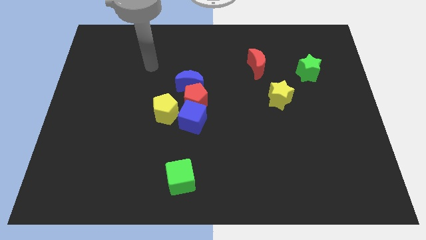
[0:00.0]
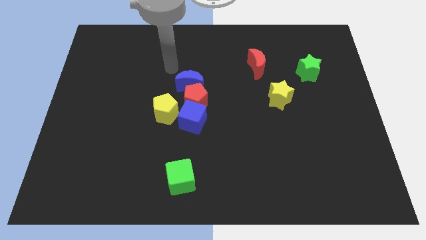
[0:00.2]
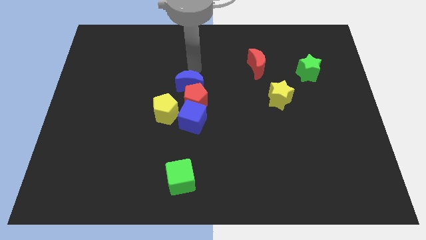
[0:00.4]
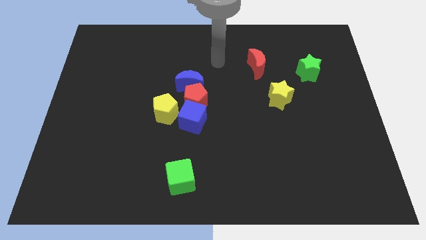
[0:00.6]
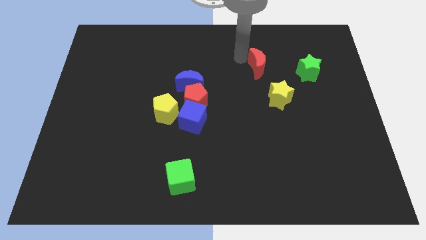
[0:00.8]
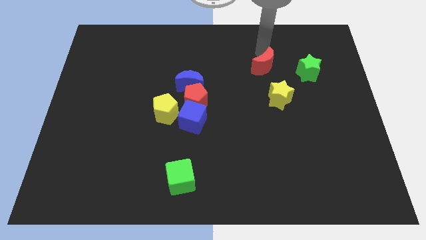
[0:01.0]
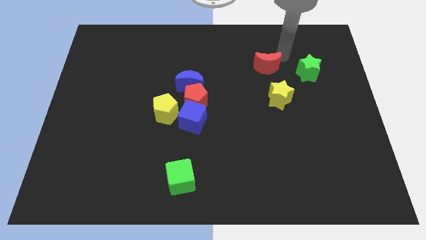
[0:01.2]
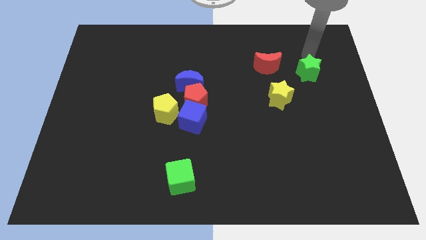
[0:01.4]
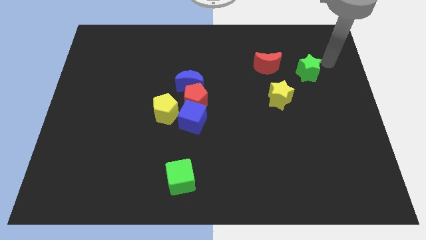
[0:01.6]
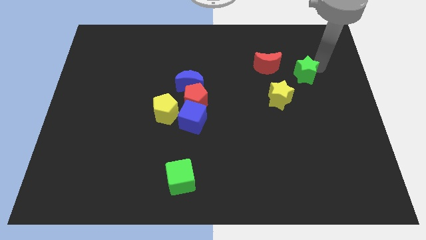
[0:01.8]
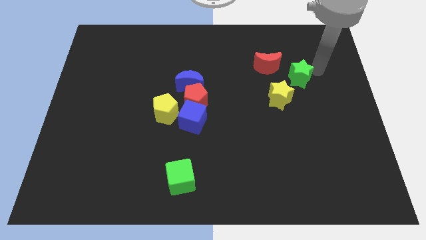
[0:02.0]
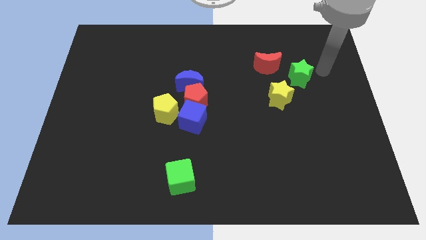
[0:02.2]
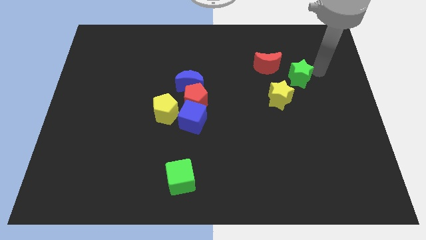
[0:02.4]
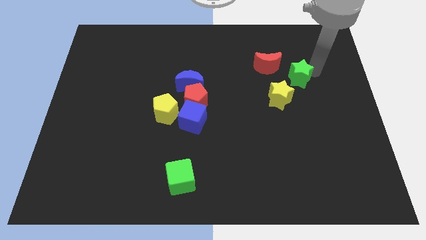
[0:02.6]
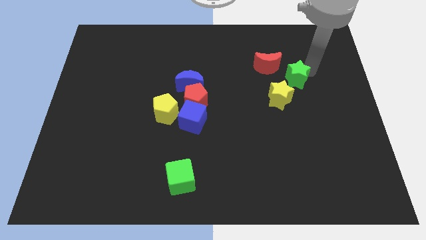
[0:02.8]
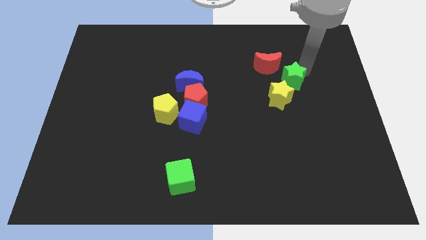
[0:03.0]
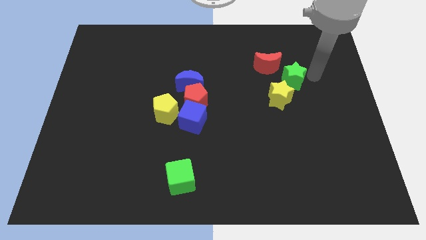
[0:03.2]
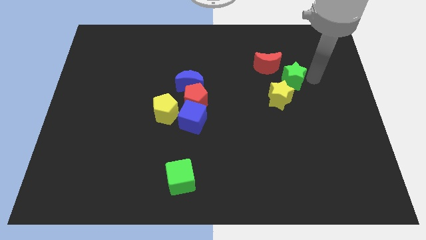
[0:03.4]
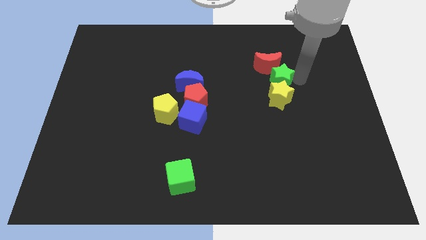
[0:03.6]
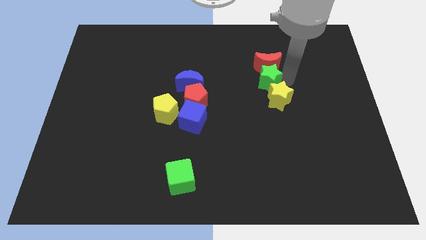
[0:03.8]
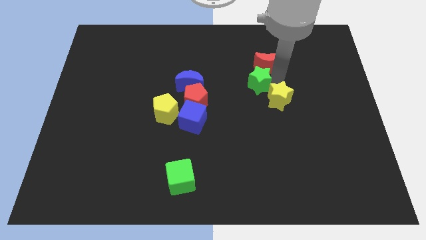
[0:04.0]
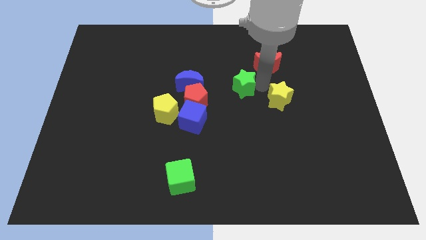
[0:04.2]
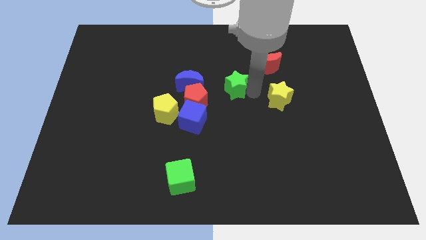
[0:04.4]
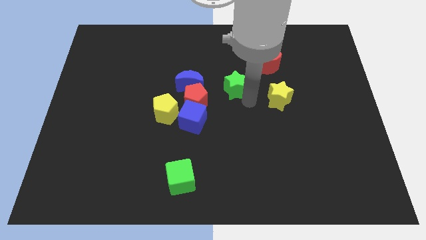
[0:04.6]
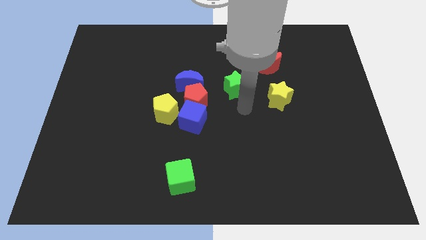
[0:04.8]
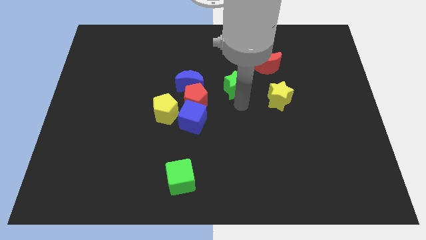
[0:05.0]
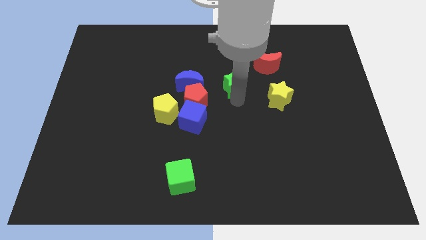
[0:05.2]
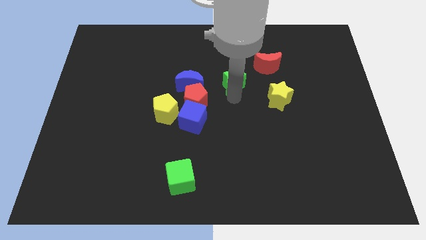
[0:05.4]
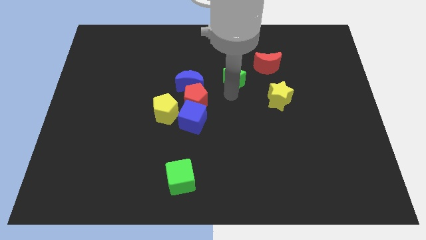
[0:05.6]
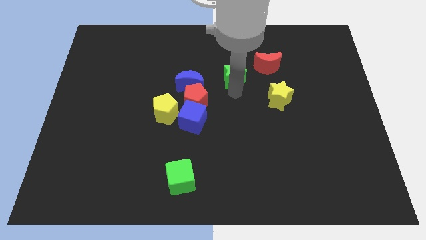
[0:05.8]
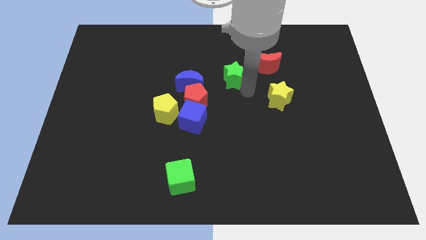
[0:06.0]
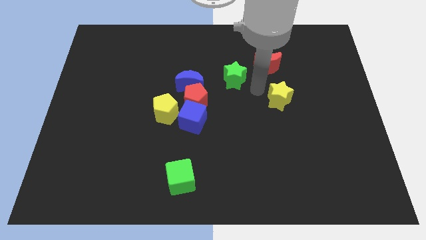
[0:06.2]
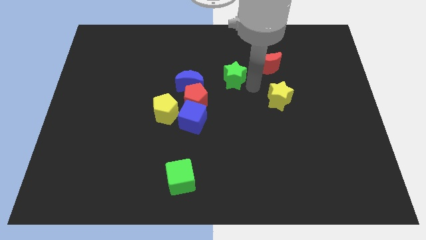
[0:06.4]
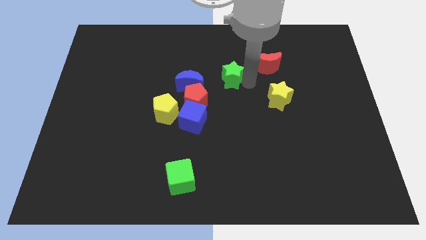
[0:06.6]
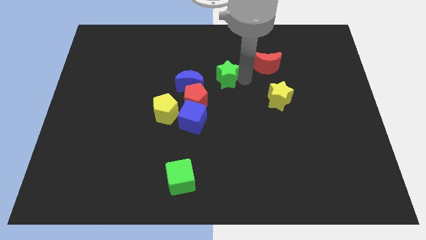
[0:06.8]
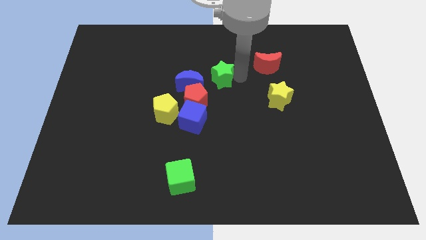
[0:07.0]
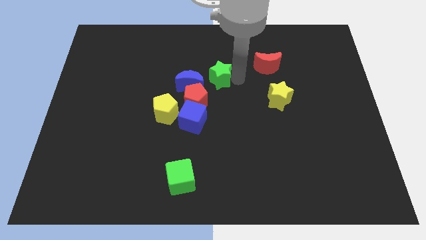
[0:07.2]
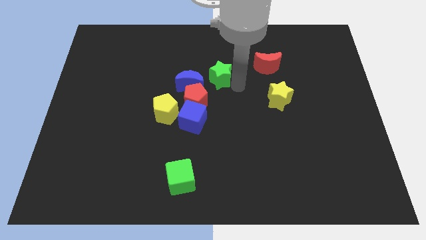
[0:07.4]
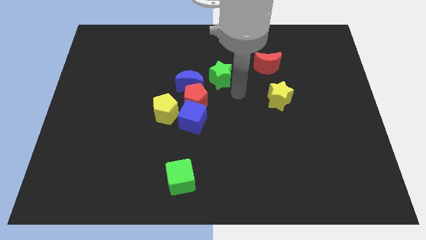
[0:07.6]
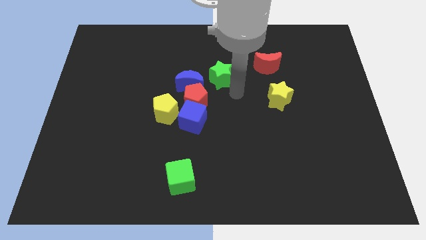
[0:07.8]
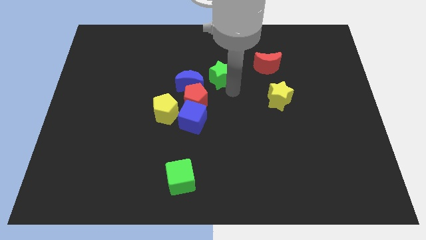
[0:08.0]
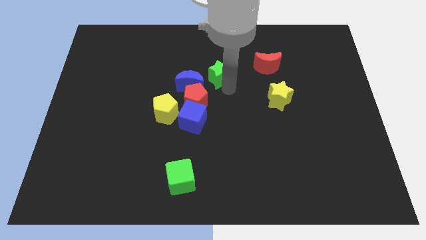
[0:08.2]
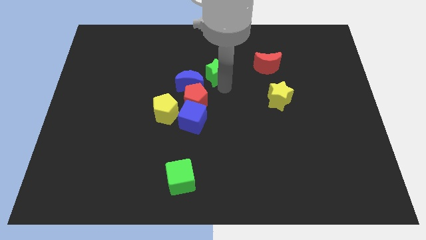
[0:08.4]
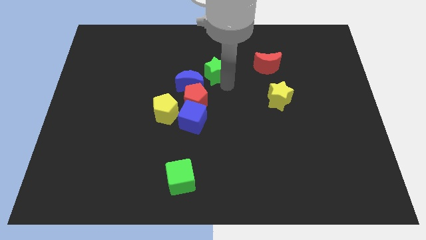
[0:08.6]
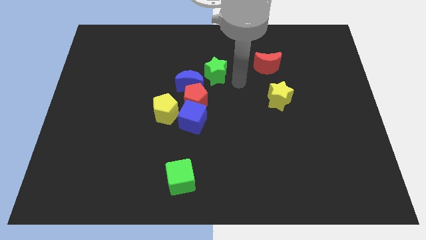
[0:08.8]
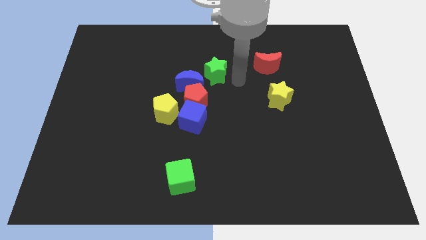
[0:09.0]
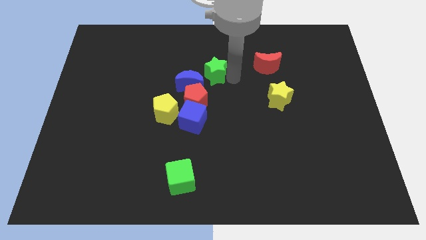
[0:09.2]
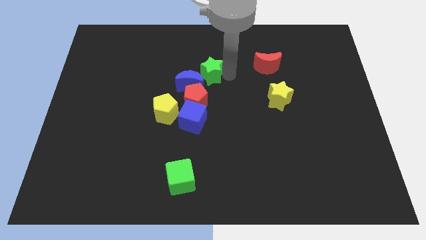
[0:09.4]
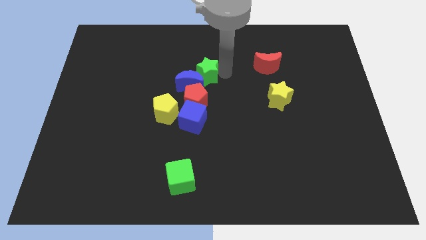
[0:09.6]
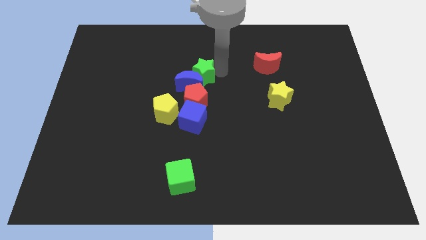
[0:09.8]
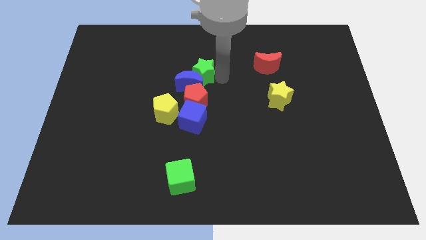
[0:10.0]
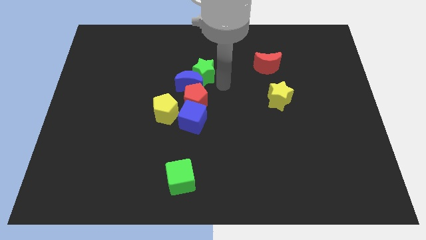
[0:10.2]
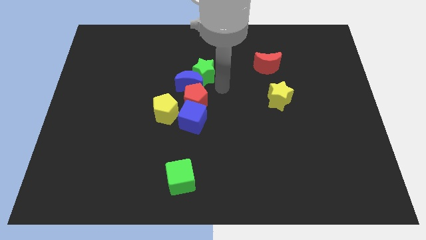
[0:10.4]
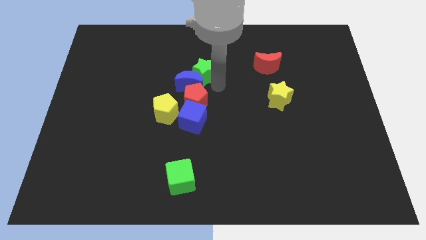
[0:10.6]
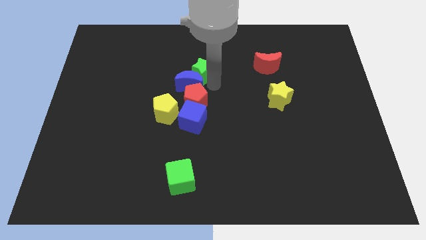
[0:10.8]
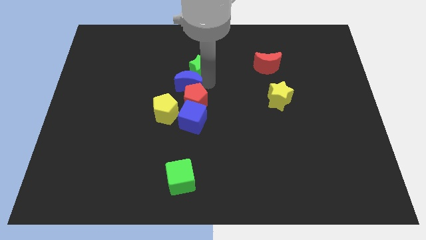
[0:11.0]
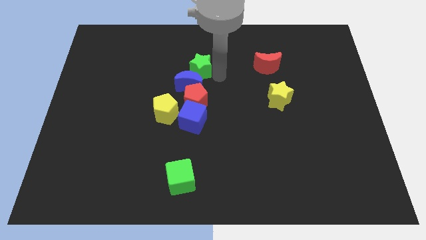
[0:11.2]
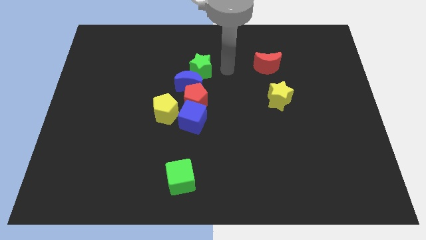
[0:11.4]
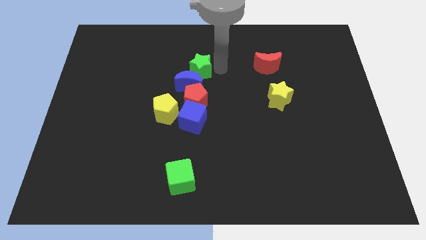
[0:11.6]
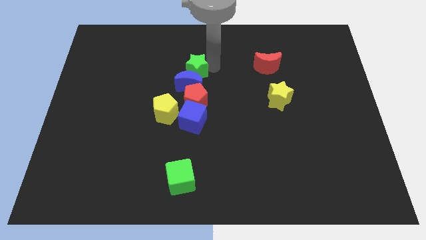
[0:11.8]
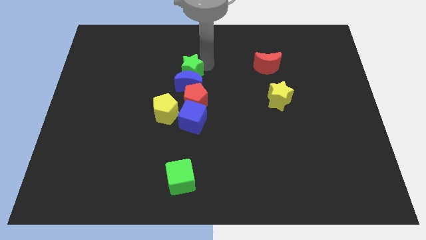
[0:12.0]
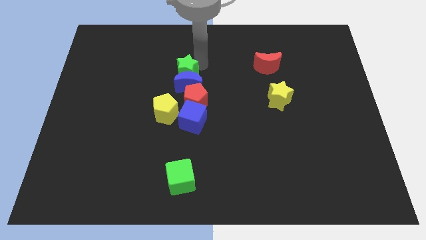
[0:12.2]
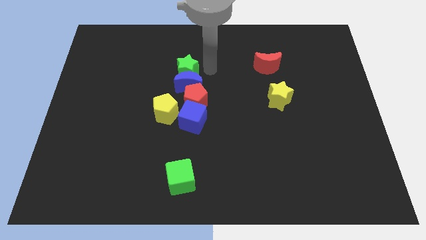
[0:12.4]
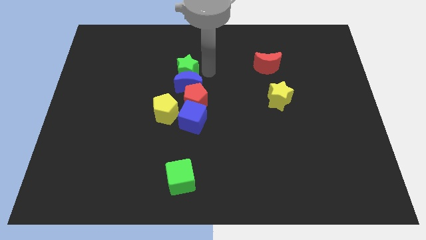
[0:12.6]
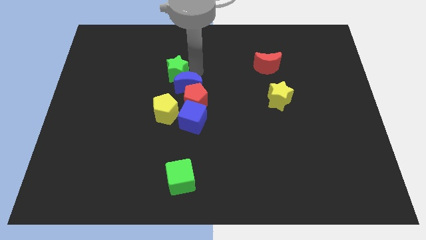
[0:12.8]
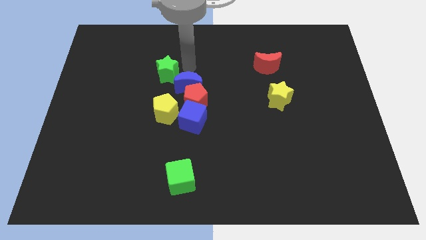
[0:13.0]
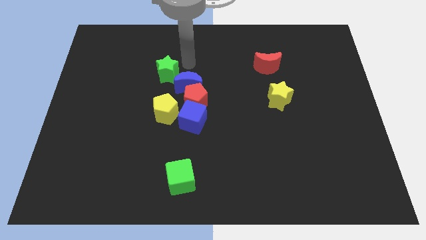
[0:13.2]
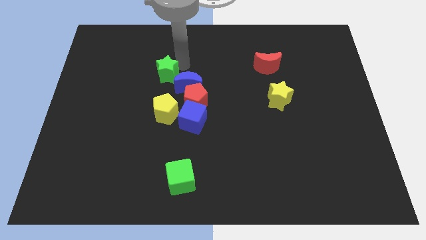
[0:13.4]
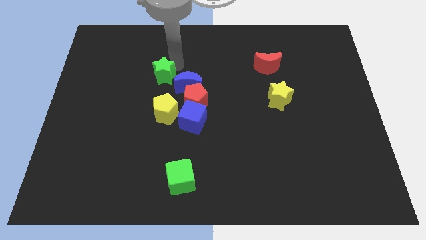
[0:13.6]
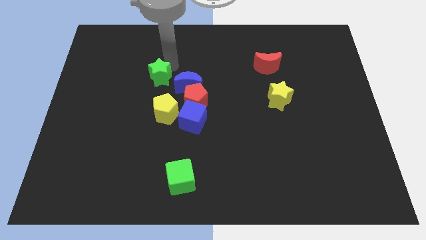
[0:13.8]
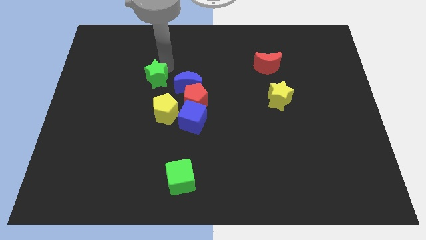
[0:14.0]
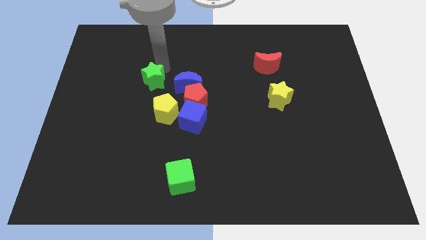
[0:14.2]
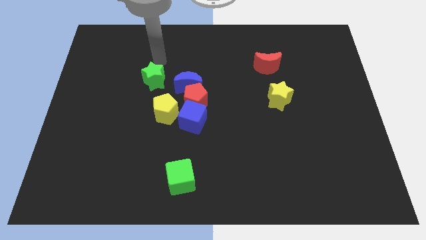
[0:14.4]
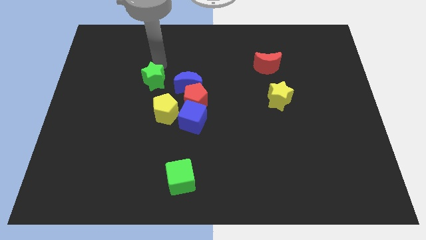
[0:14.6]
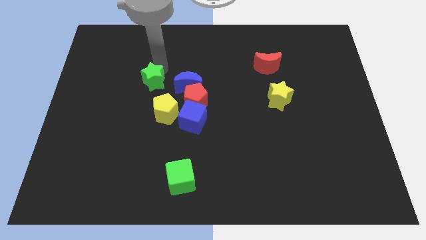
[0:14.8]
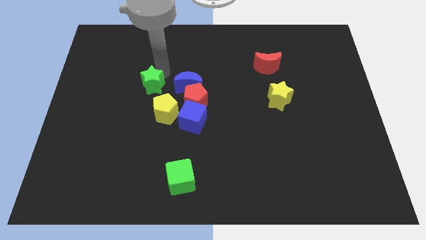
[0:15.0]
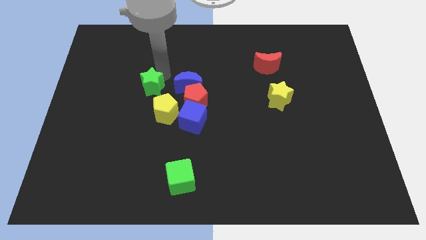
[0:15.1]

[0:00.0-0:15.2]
slide the green star left of the red pentagon
